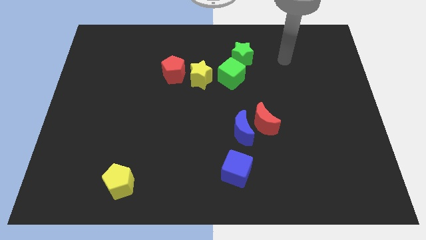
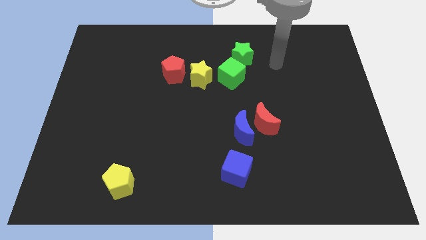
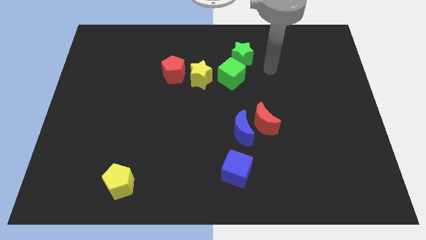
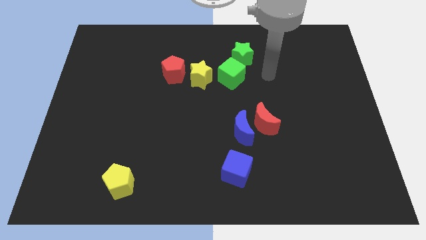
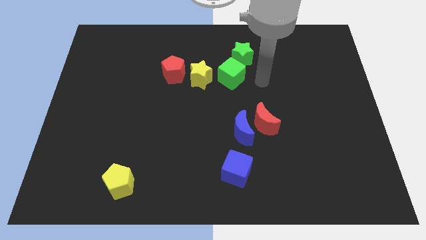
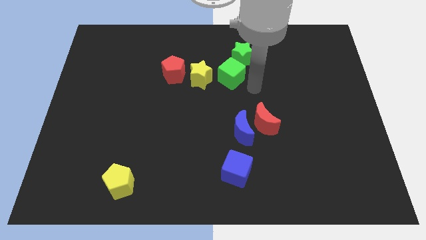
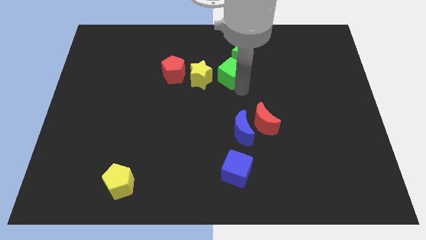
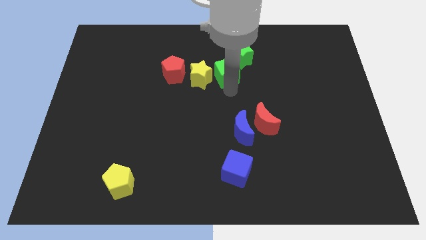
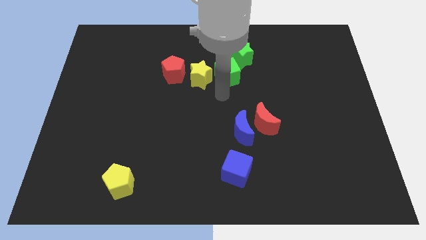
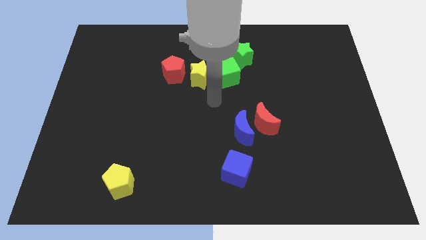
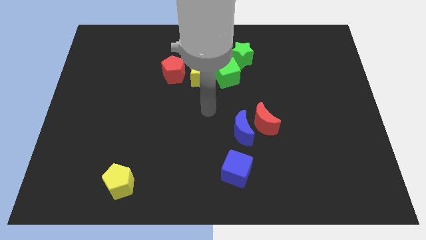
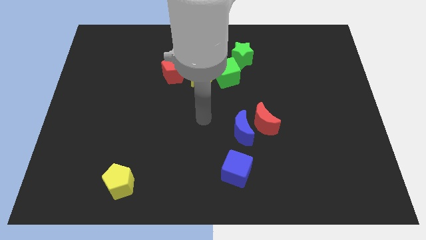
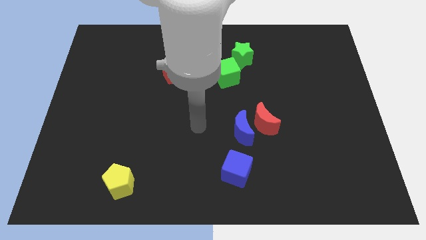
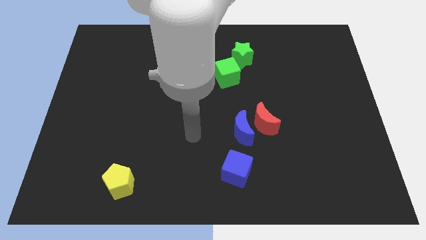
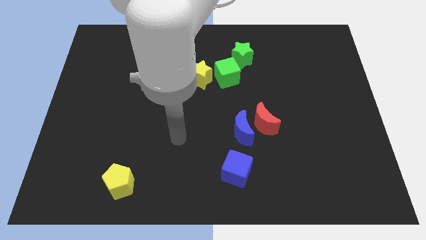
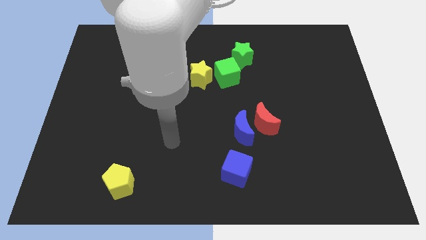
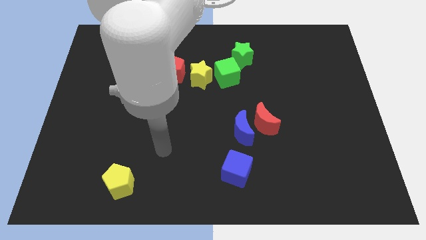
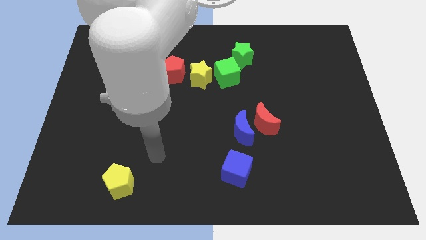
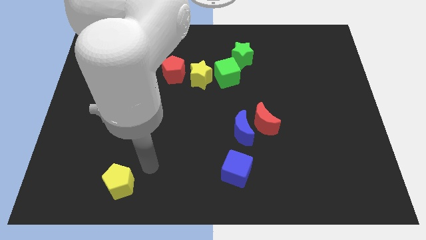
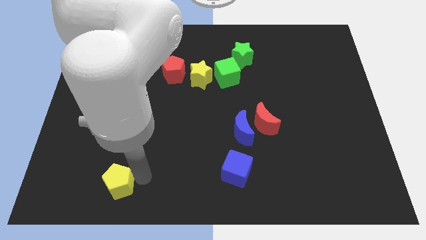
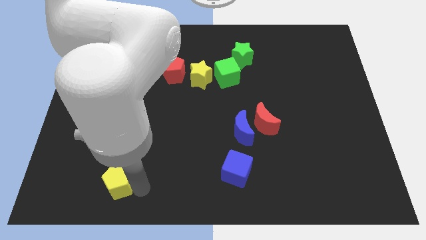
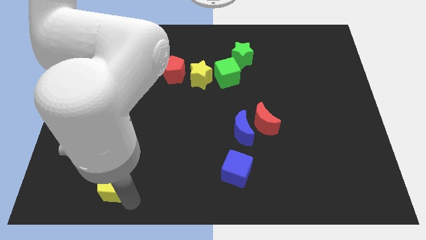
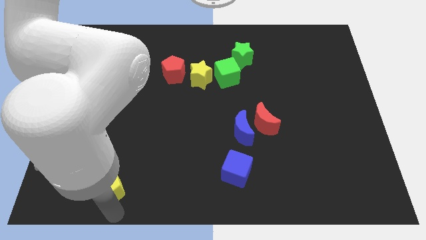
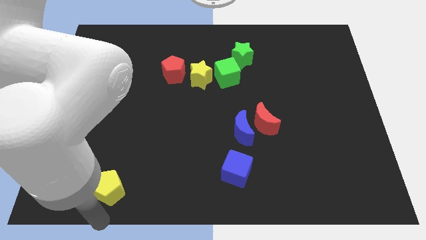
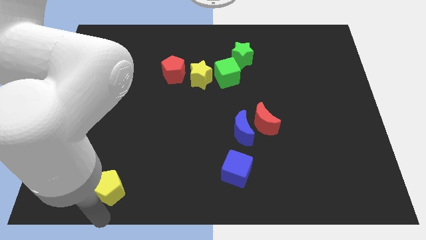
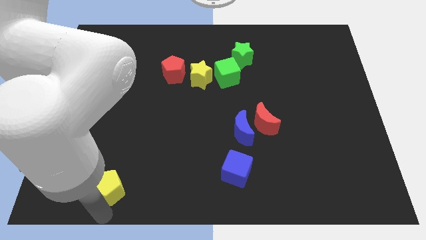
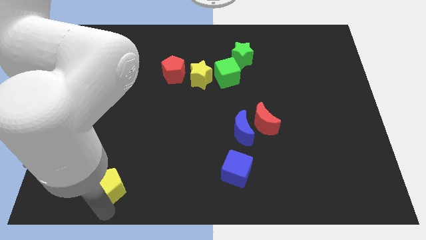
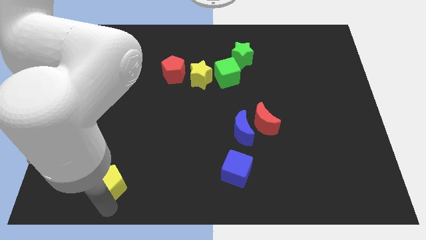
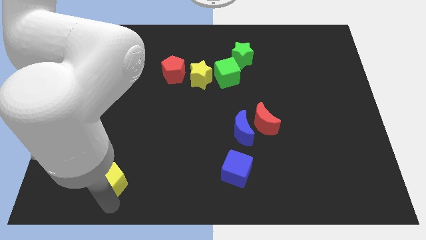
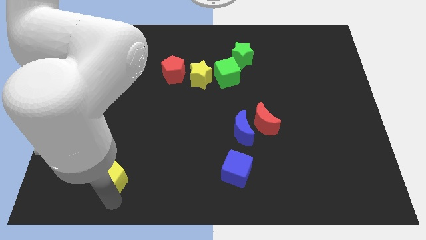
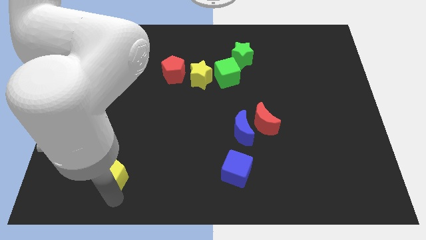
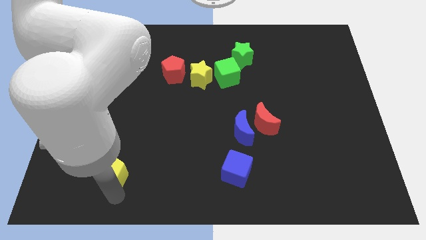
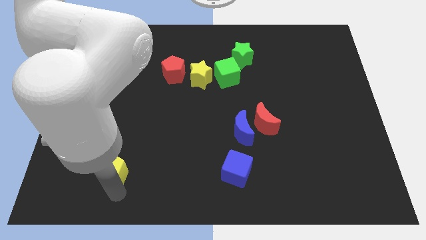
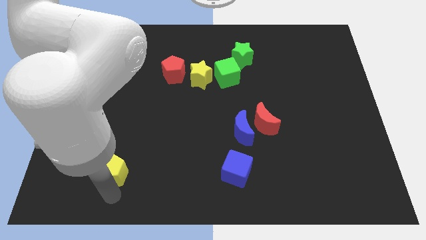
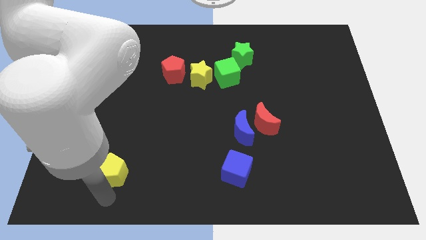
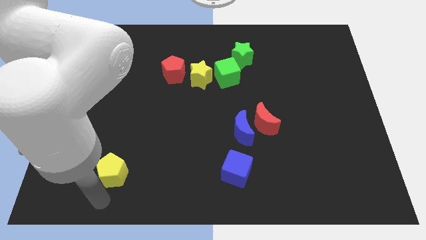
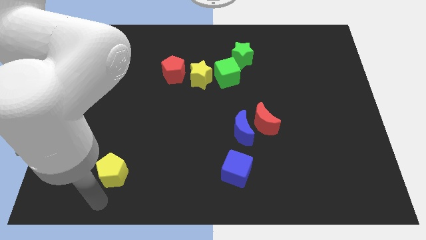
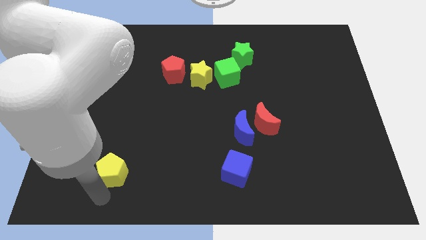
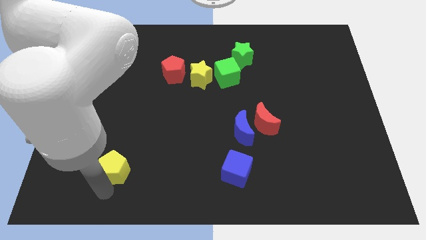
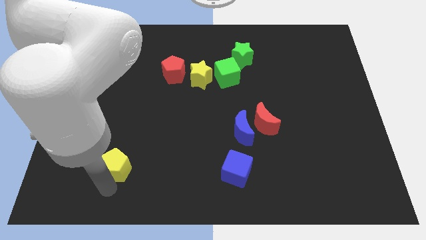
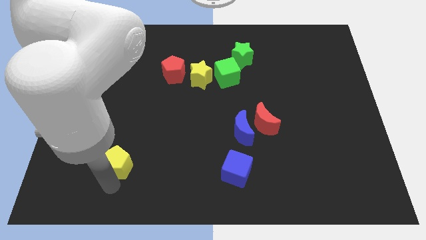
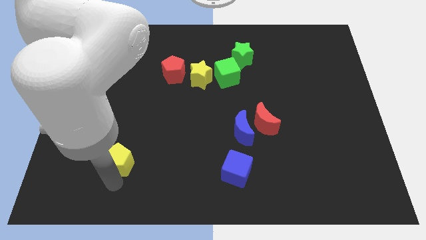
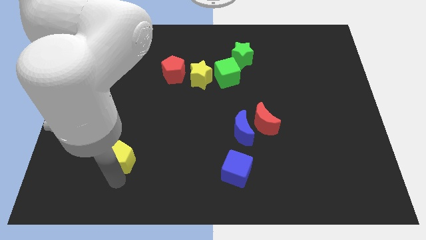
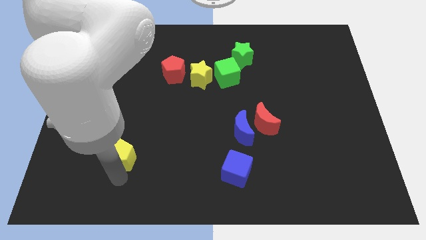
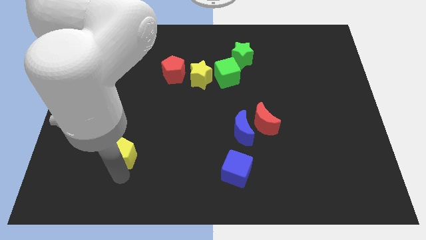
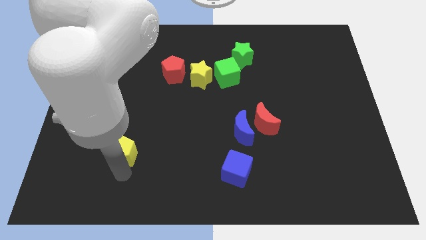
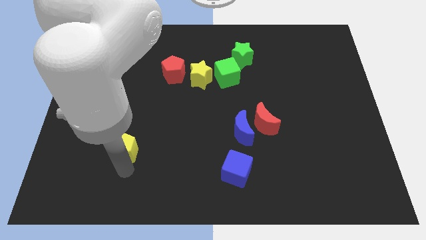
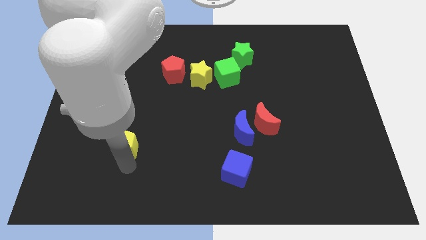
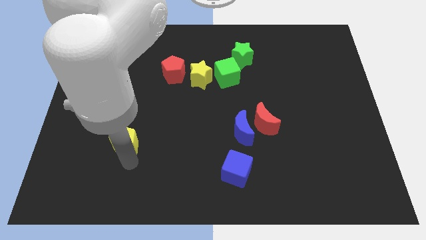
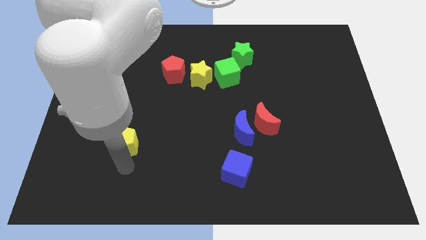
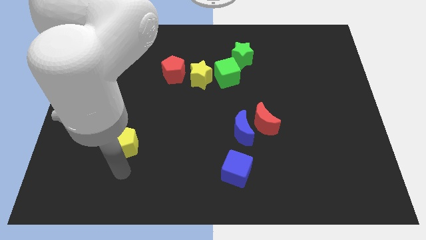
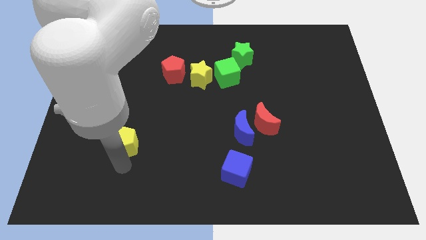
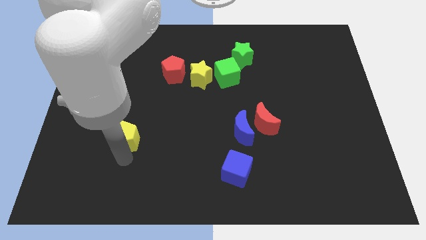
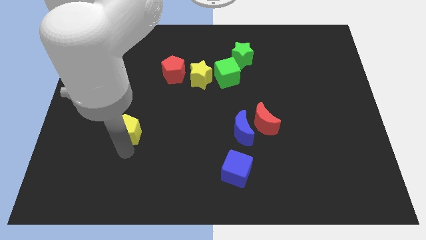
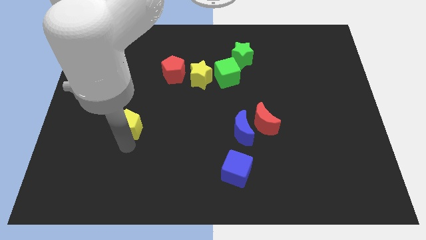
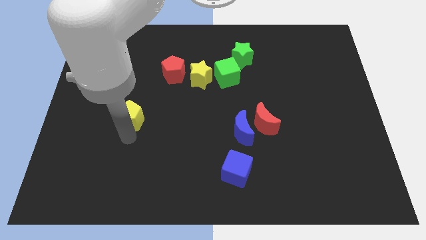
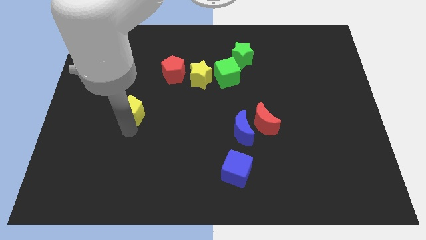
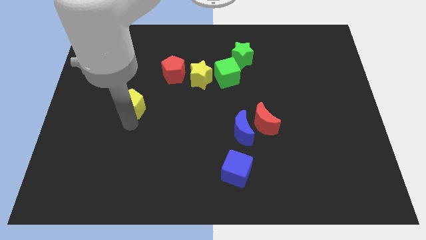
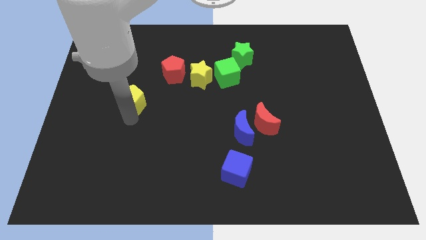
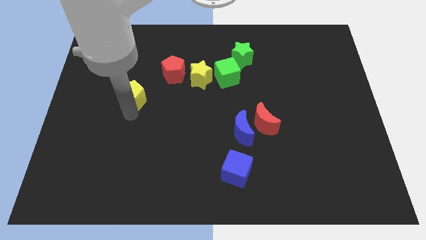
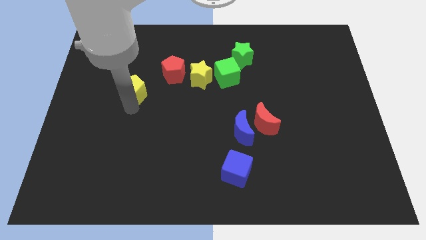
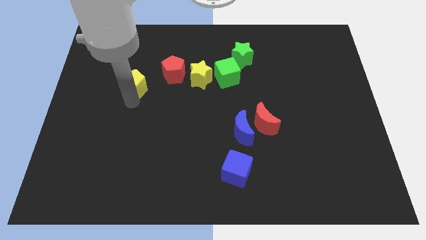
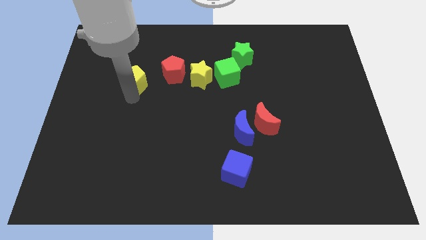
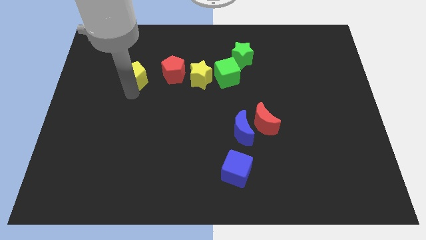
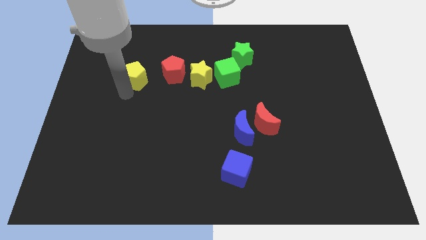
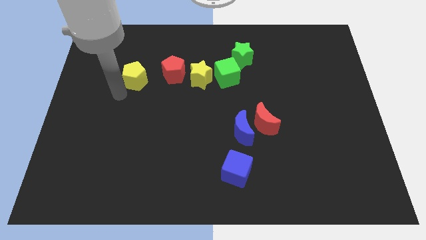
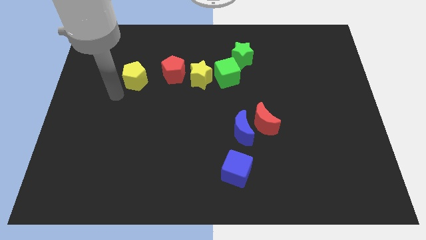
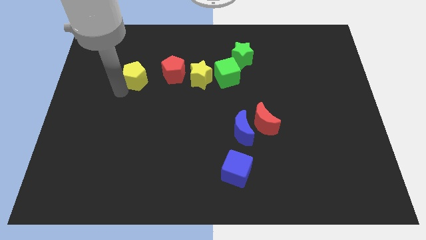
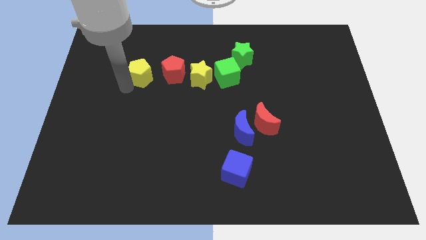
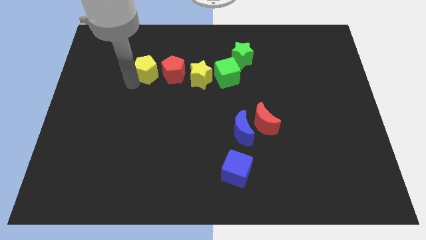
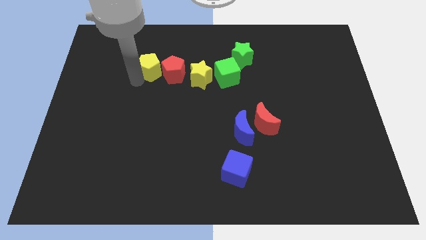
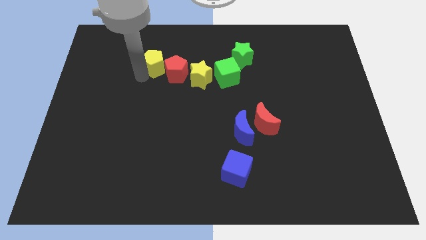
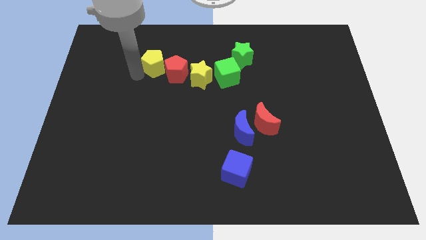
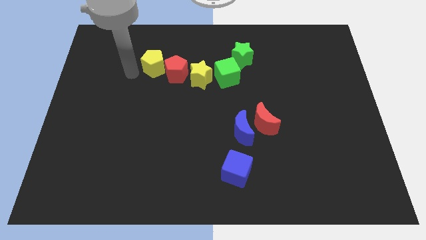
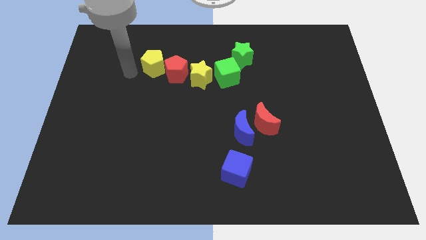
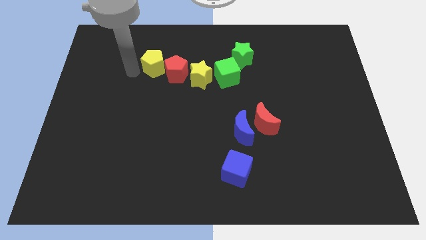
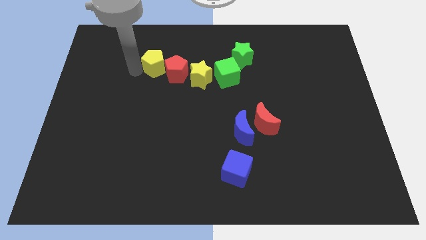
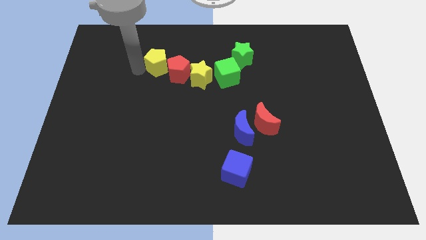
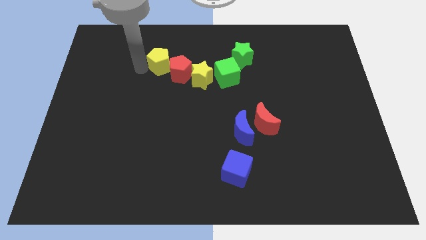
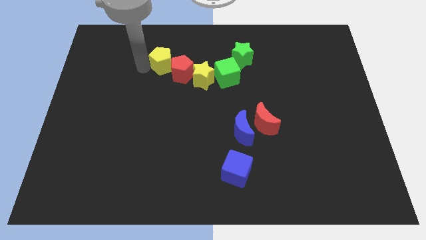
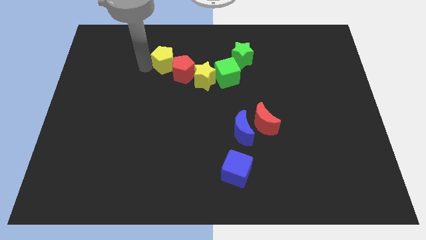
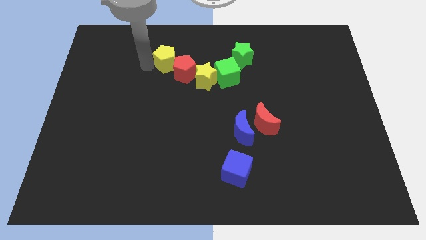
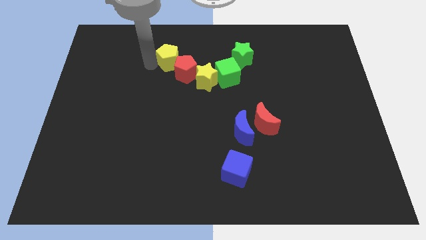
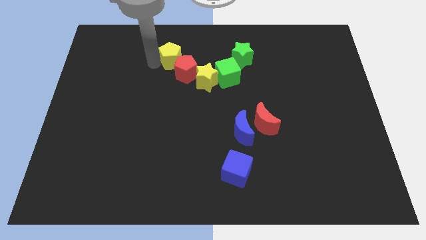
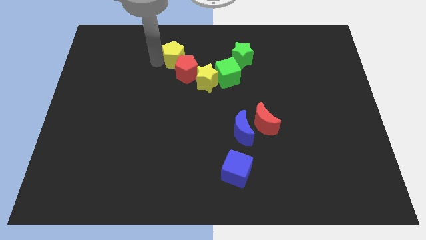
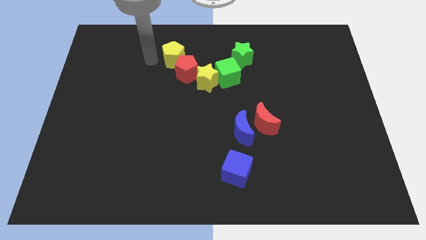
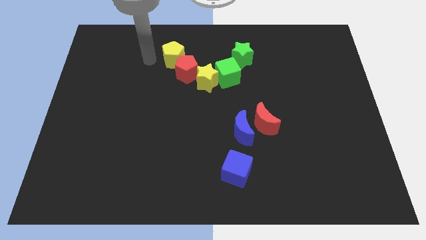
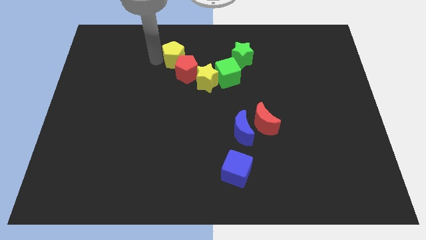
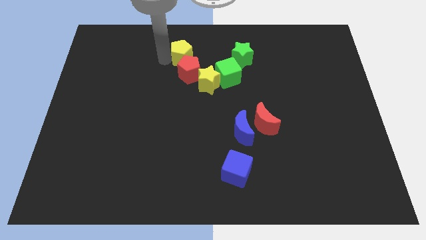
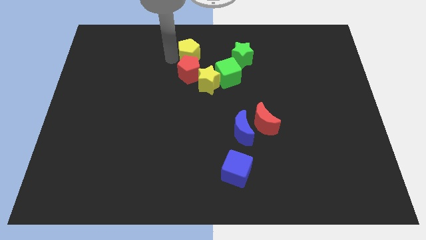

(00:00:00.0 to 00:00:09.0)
slide the yellow pentagon to the top right side of the red pentagon
